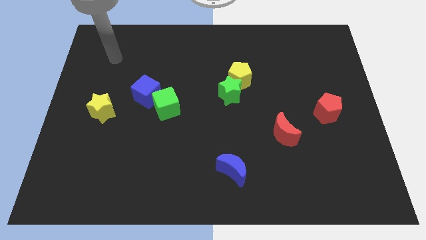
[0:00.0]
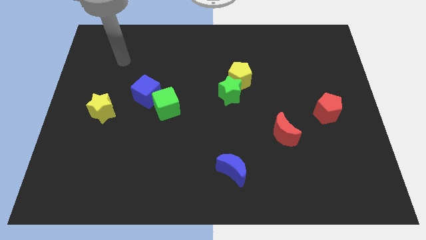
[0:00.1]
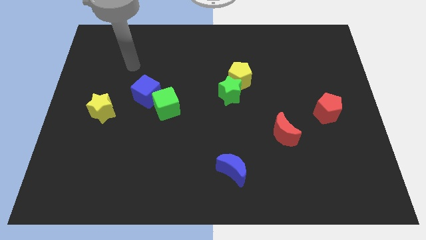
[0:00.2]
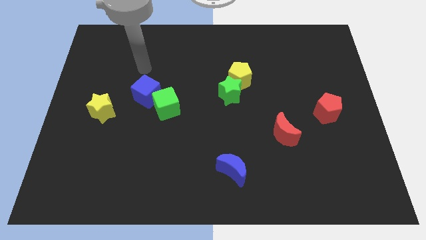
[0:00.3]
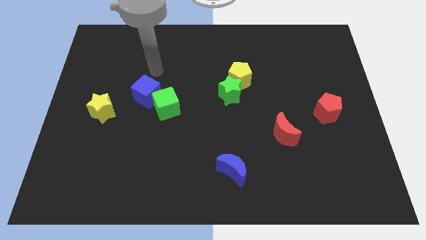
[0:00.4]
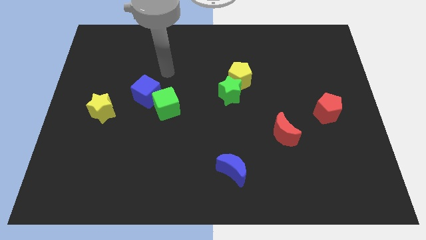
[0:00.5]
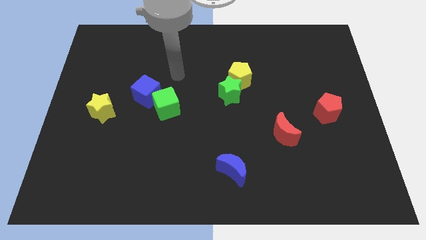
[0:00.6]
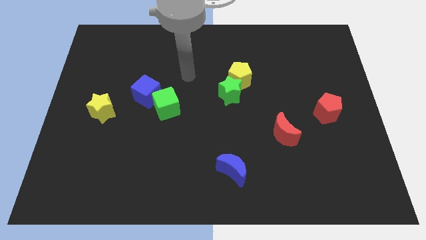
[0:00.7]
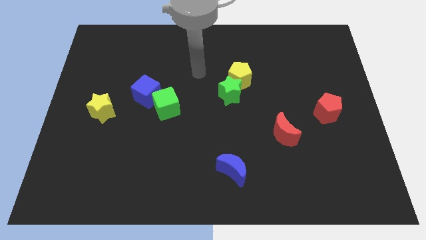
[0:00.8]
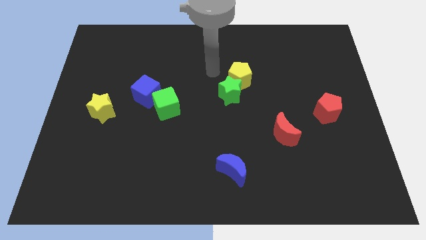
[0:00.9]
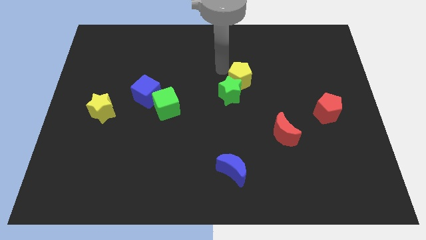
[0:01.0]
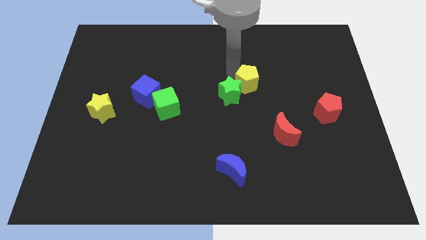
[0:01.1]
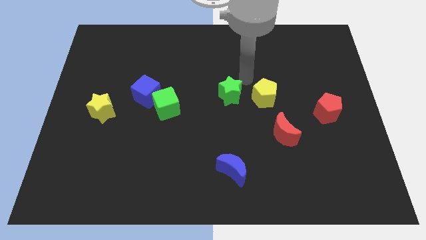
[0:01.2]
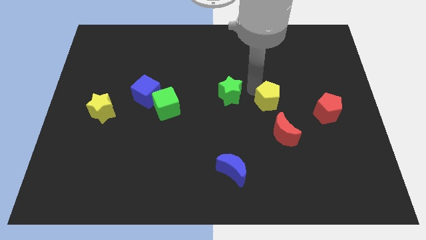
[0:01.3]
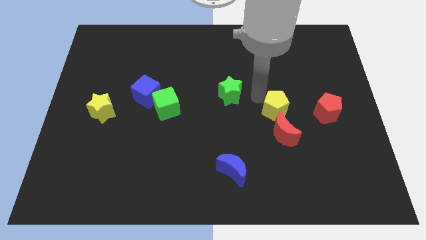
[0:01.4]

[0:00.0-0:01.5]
move the green star away from the yellow pentagon

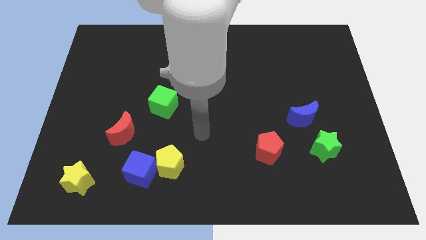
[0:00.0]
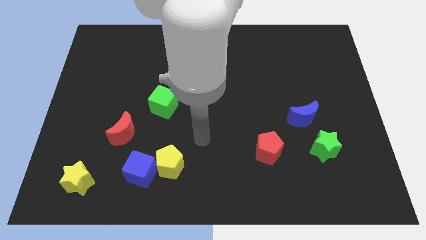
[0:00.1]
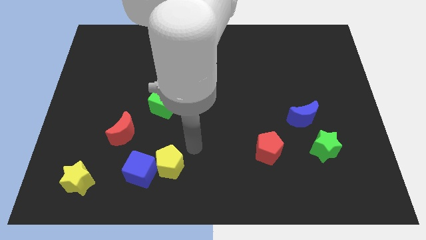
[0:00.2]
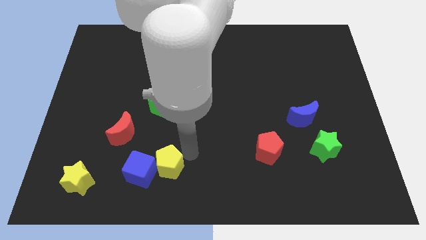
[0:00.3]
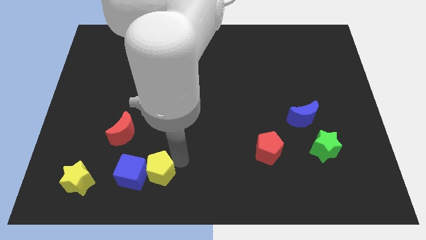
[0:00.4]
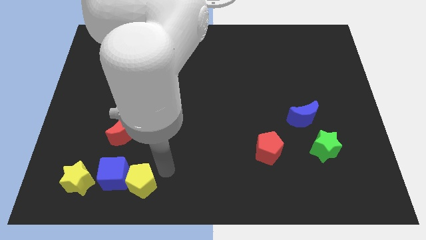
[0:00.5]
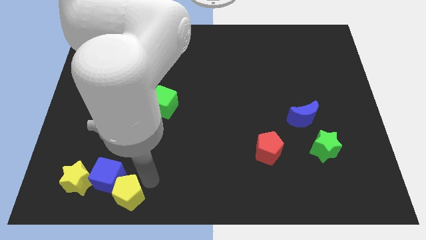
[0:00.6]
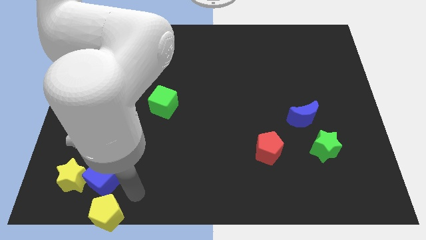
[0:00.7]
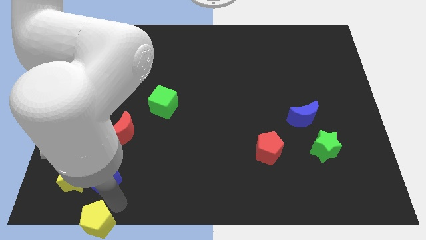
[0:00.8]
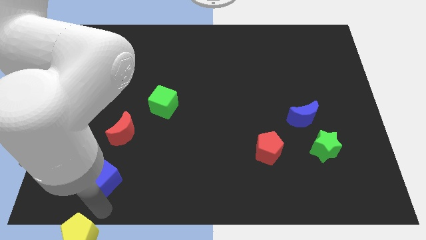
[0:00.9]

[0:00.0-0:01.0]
pull the blue cube apart from the yellow pentagon

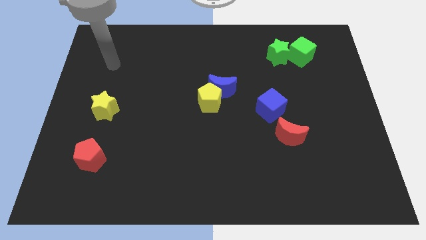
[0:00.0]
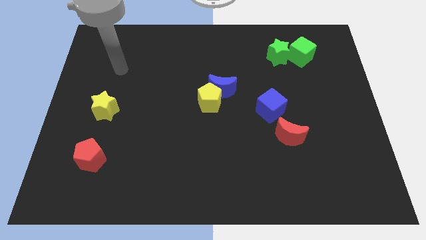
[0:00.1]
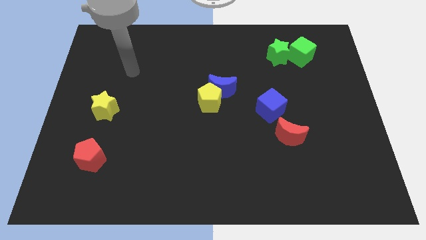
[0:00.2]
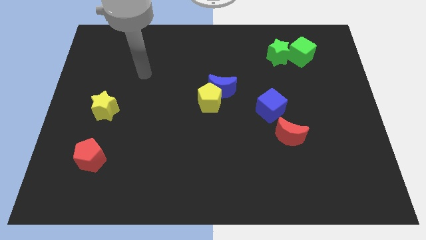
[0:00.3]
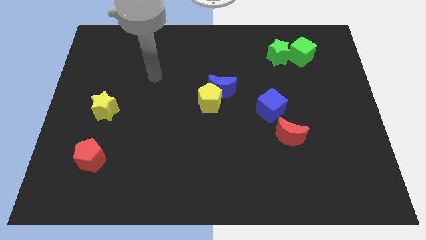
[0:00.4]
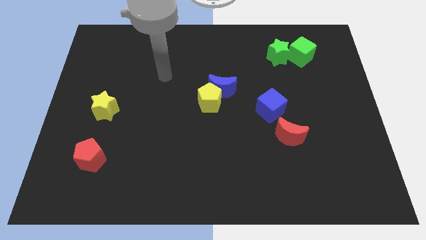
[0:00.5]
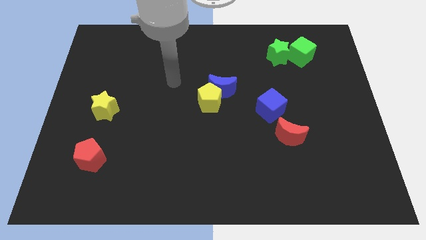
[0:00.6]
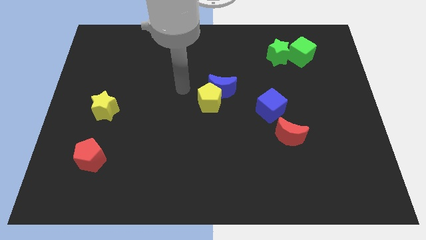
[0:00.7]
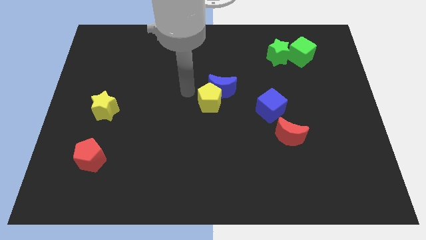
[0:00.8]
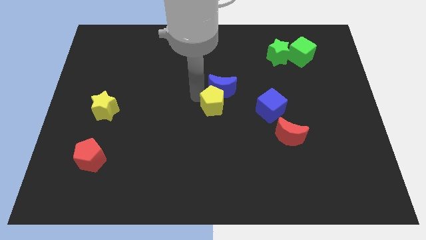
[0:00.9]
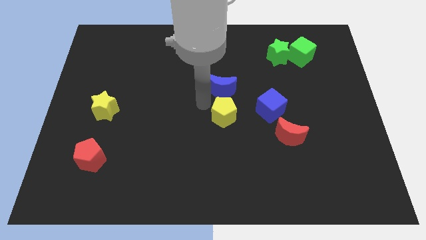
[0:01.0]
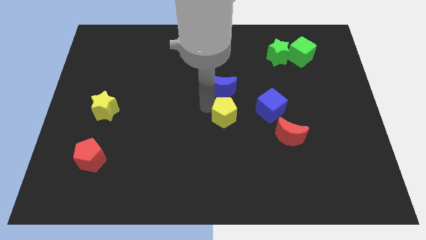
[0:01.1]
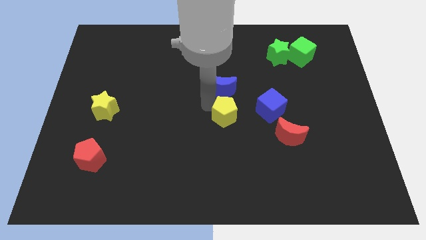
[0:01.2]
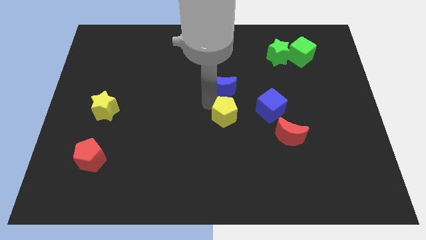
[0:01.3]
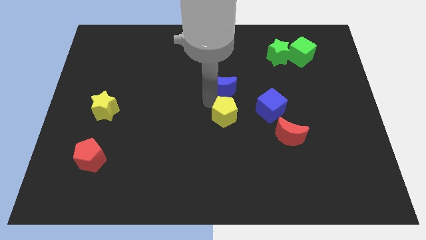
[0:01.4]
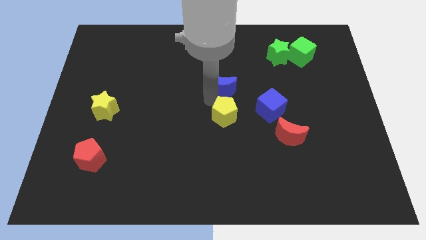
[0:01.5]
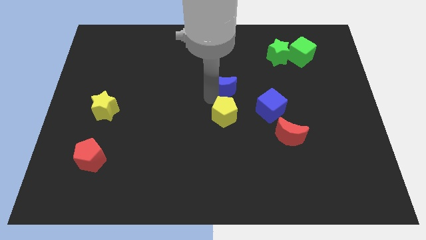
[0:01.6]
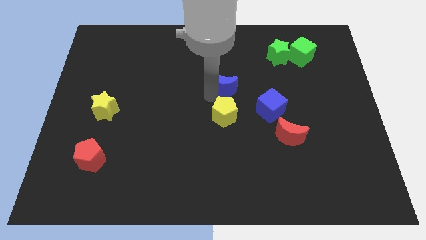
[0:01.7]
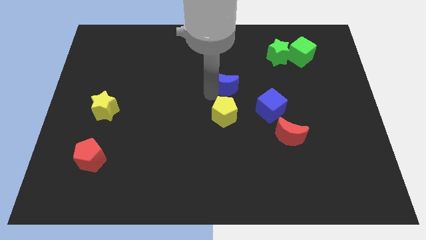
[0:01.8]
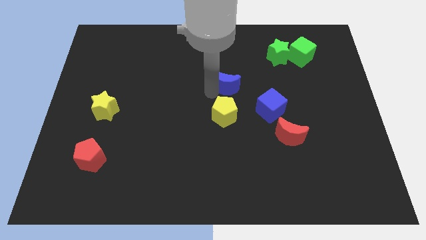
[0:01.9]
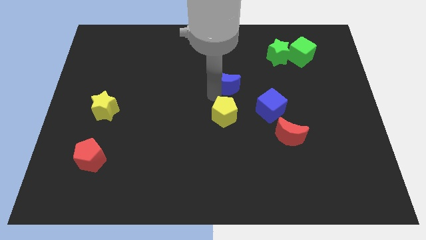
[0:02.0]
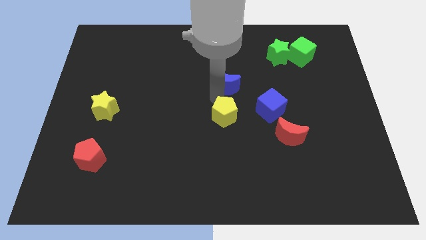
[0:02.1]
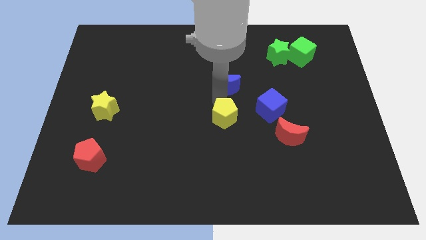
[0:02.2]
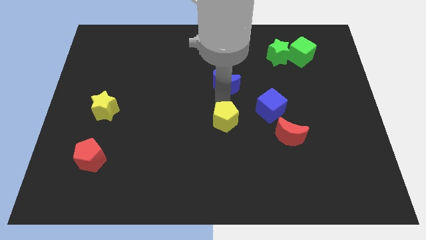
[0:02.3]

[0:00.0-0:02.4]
pull the blue moon apart from the yellow pentagon

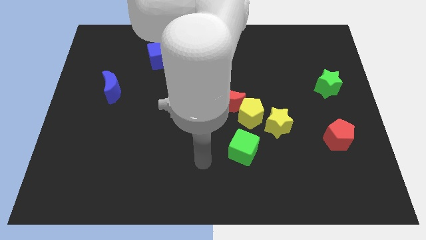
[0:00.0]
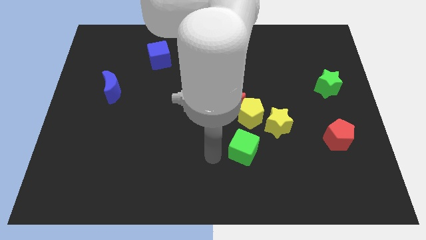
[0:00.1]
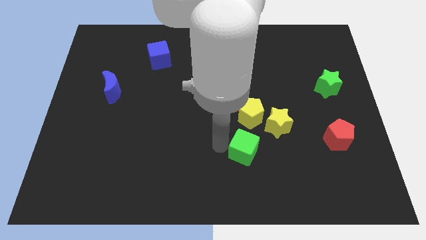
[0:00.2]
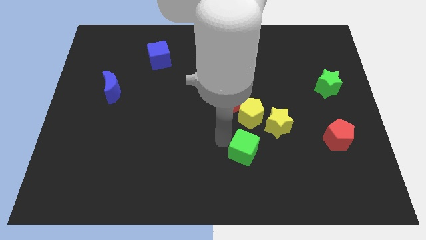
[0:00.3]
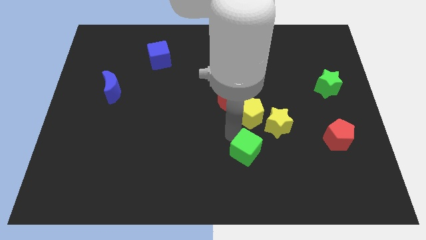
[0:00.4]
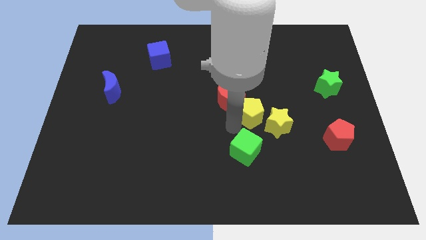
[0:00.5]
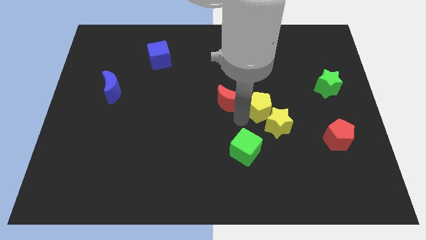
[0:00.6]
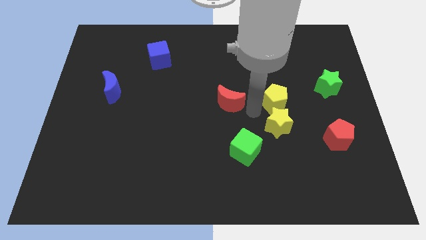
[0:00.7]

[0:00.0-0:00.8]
move the red moon away from the yellow pentagon

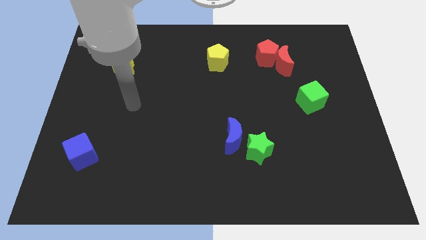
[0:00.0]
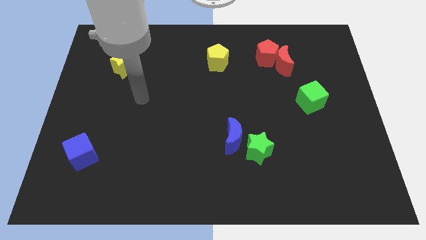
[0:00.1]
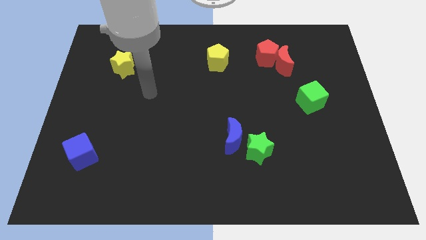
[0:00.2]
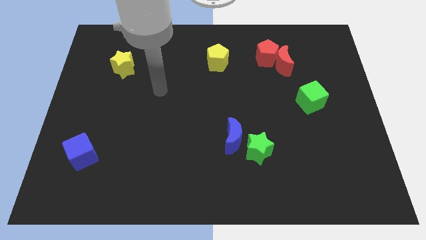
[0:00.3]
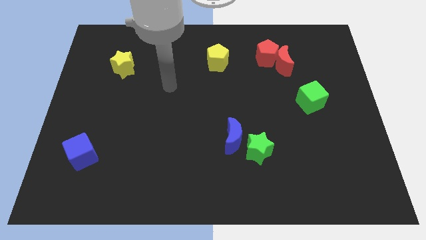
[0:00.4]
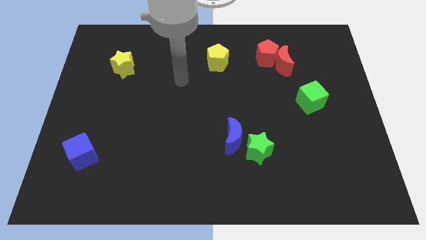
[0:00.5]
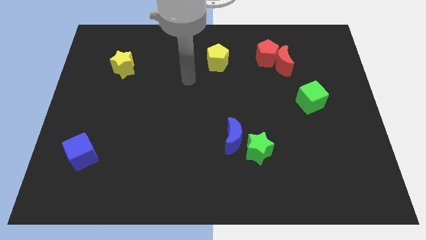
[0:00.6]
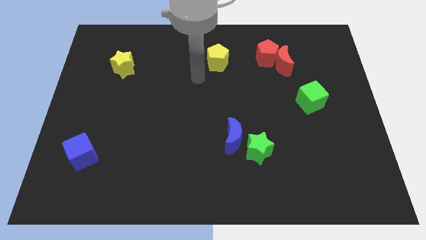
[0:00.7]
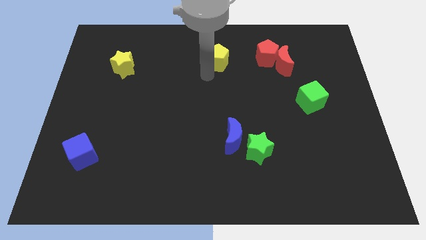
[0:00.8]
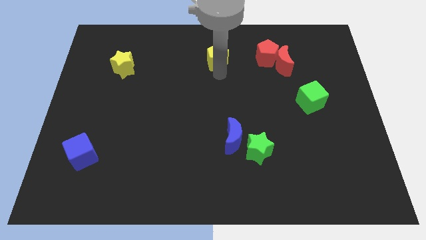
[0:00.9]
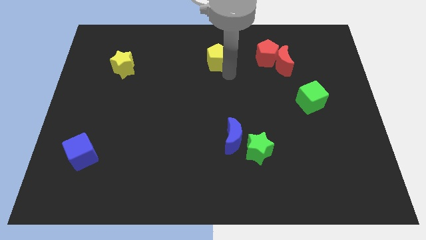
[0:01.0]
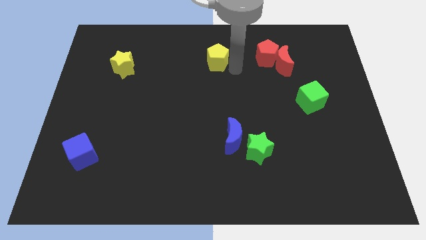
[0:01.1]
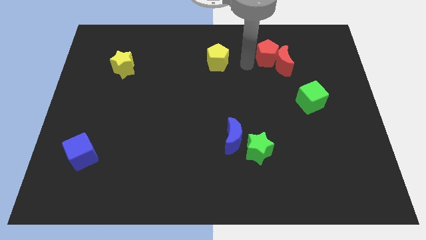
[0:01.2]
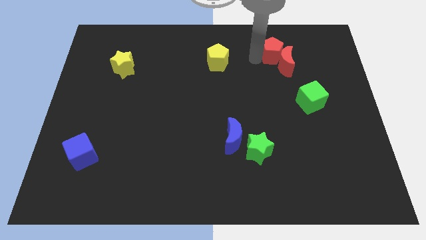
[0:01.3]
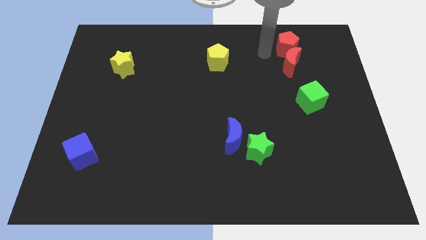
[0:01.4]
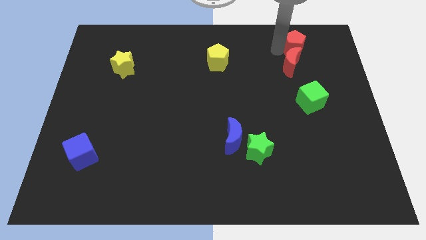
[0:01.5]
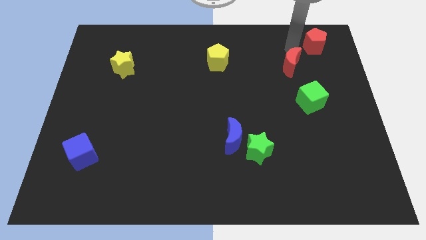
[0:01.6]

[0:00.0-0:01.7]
separate the red moon from the red pentagon

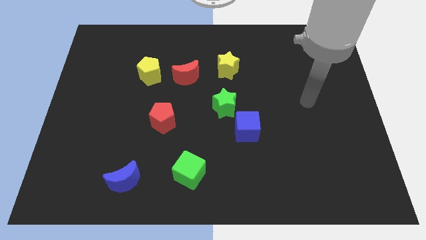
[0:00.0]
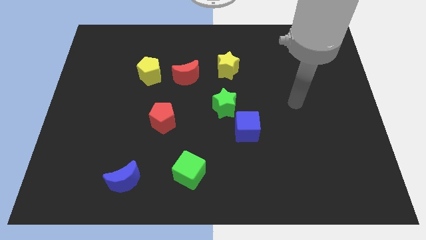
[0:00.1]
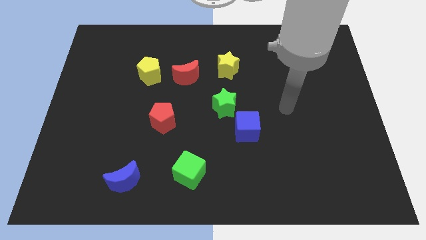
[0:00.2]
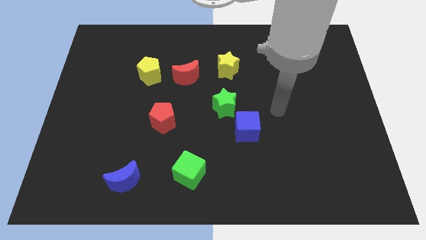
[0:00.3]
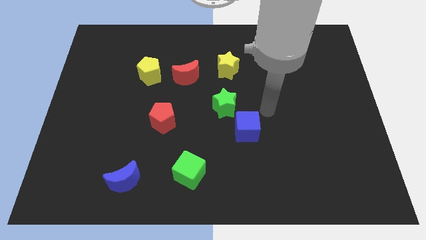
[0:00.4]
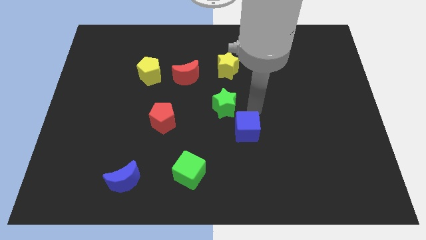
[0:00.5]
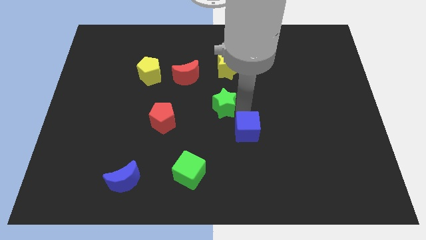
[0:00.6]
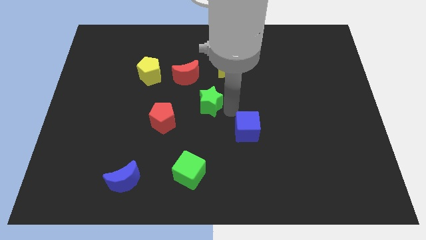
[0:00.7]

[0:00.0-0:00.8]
move the blue cube away from the green star

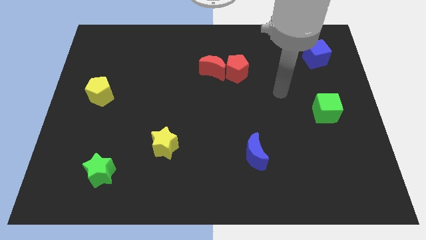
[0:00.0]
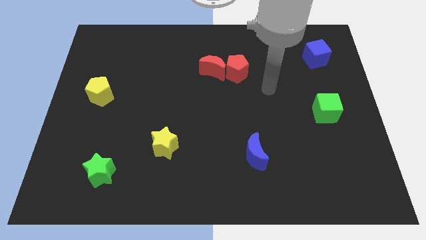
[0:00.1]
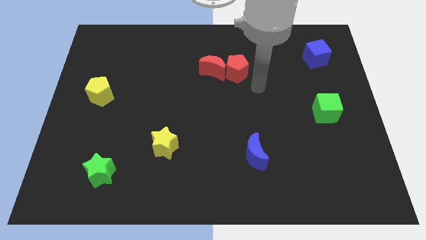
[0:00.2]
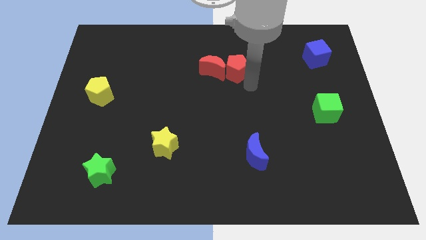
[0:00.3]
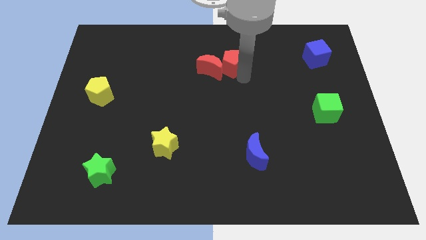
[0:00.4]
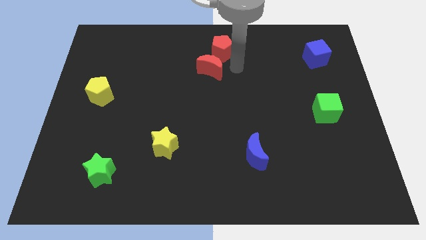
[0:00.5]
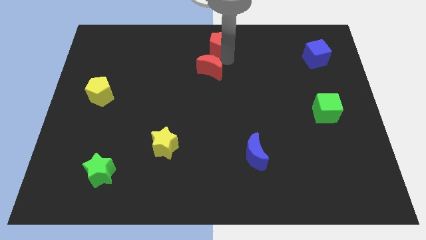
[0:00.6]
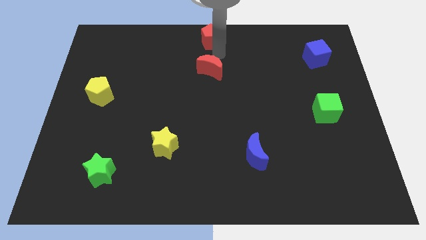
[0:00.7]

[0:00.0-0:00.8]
move the red moon away from the red pentagon

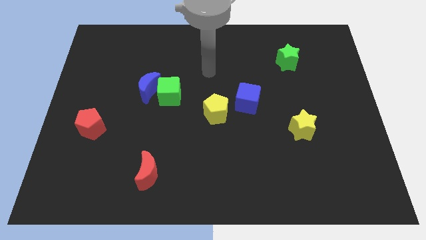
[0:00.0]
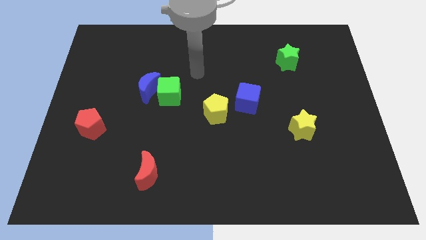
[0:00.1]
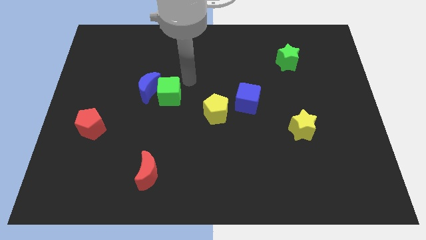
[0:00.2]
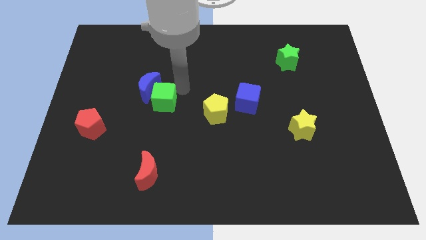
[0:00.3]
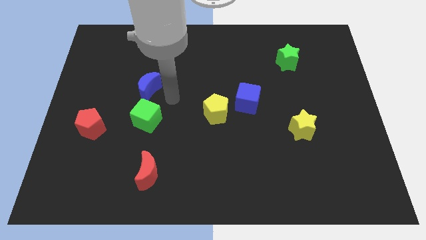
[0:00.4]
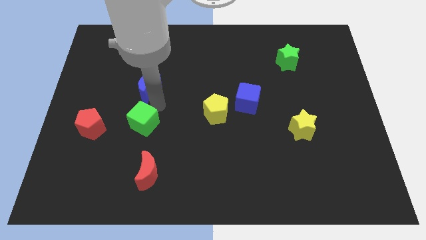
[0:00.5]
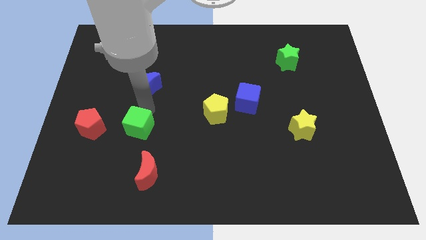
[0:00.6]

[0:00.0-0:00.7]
move the blue moon away from the green cube
